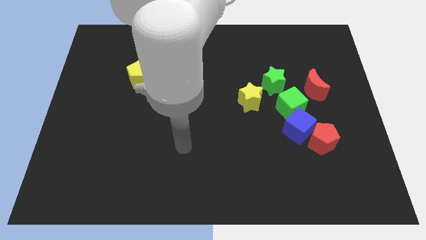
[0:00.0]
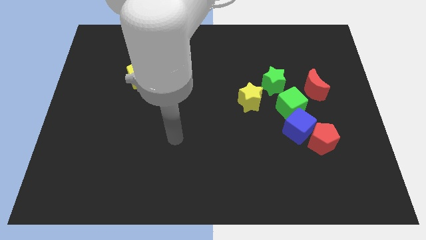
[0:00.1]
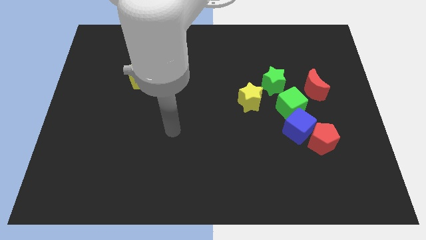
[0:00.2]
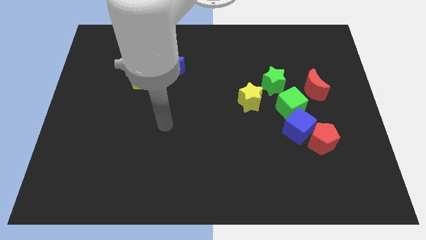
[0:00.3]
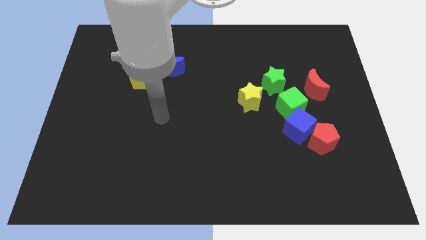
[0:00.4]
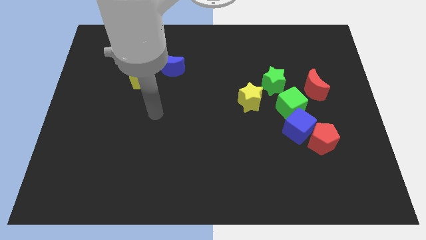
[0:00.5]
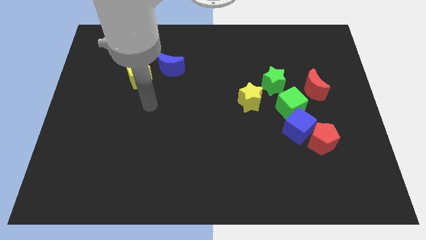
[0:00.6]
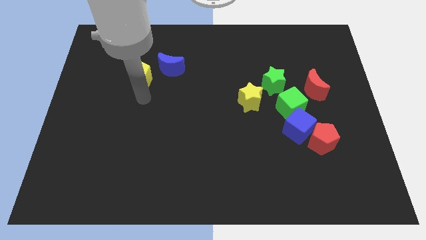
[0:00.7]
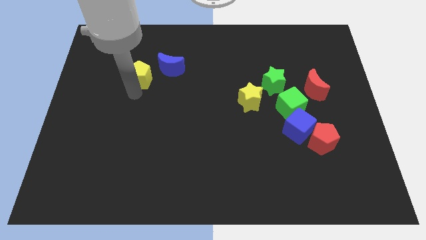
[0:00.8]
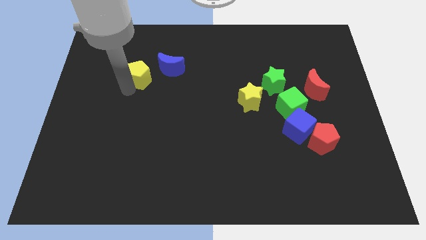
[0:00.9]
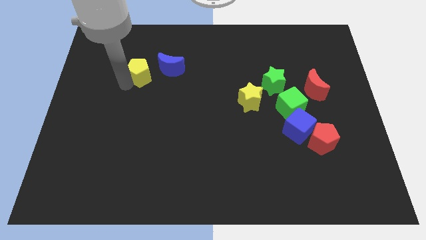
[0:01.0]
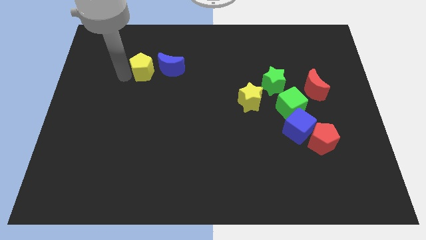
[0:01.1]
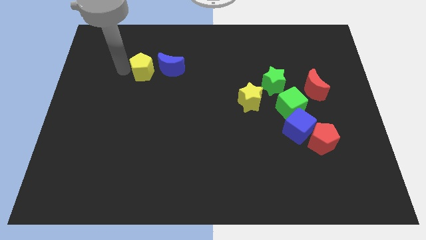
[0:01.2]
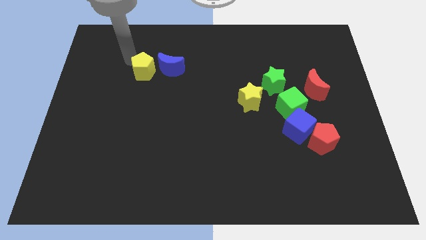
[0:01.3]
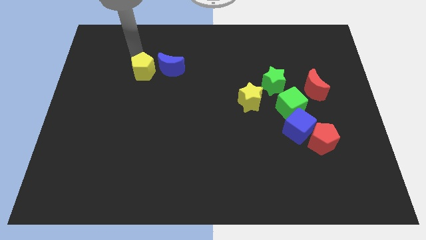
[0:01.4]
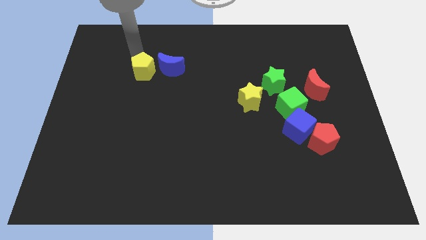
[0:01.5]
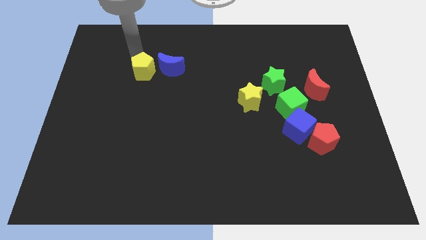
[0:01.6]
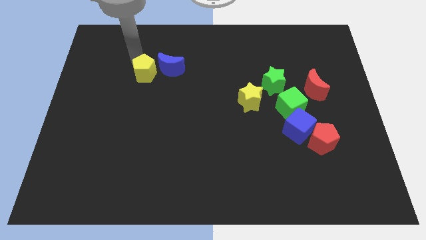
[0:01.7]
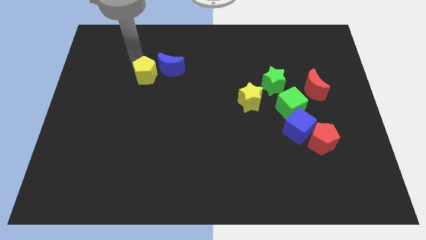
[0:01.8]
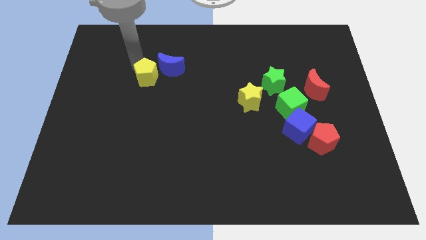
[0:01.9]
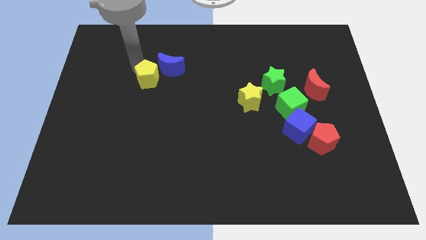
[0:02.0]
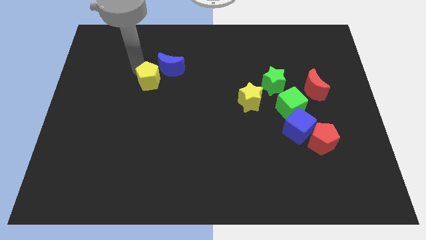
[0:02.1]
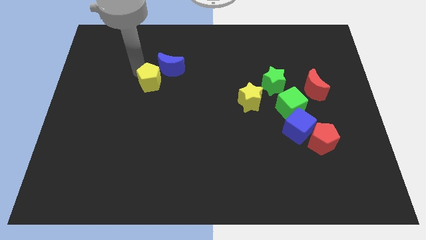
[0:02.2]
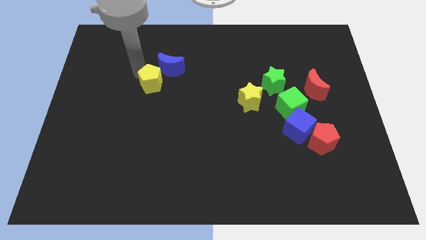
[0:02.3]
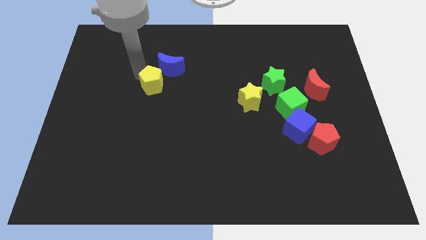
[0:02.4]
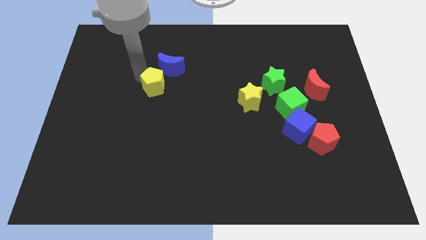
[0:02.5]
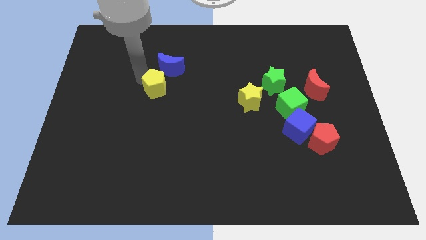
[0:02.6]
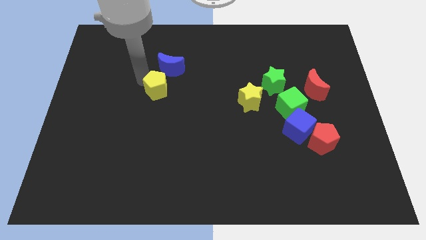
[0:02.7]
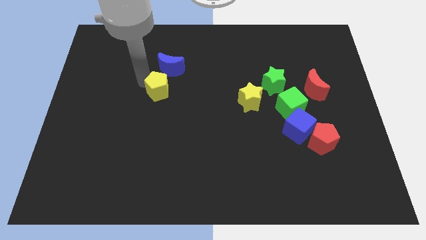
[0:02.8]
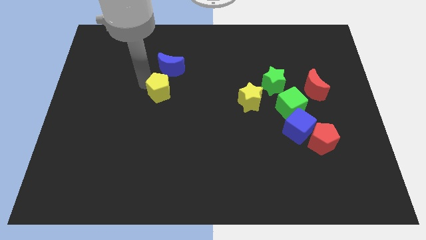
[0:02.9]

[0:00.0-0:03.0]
slightly slide the yellow pentagon downwards and to the right diagonally

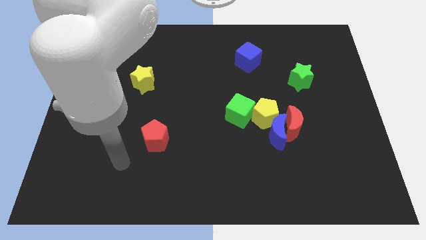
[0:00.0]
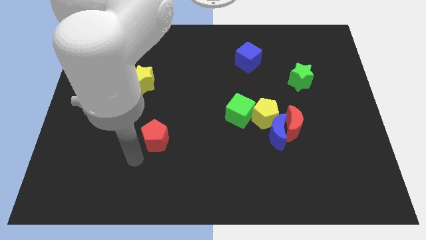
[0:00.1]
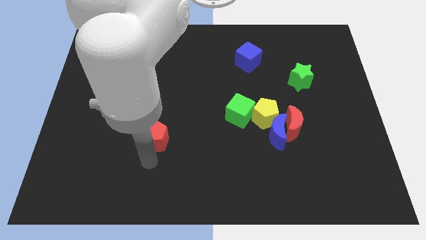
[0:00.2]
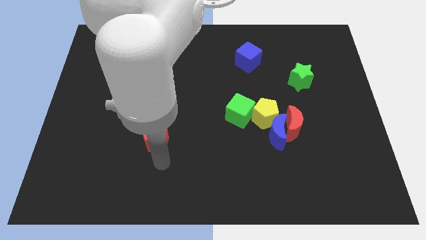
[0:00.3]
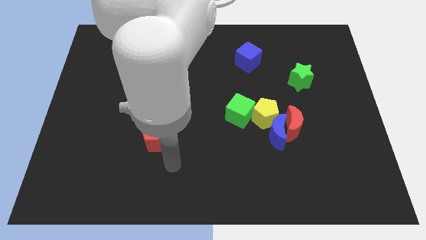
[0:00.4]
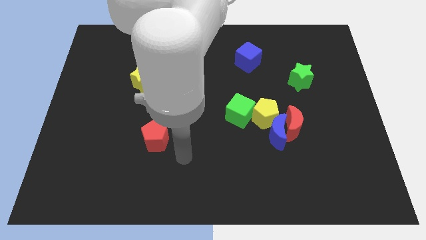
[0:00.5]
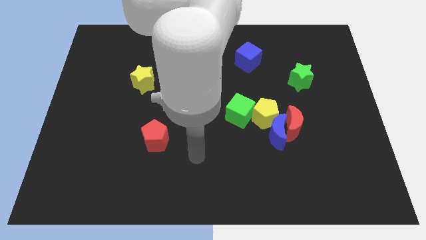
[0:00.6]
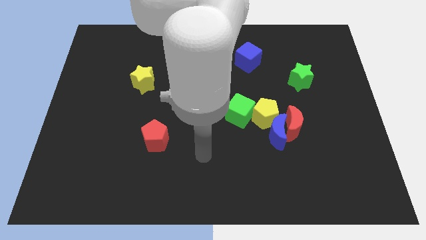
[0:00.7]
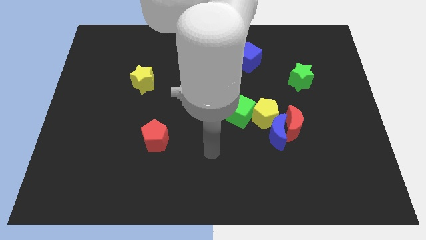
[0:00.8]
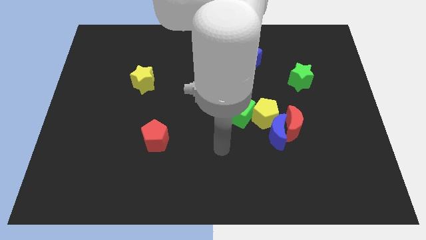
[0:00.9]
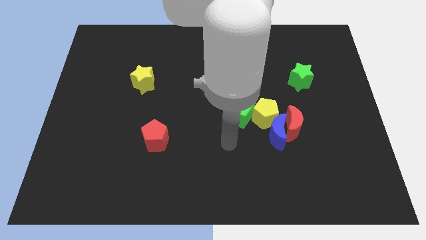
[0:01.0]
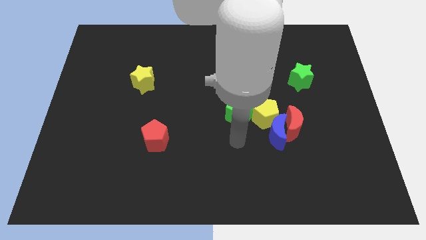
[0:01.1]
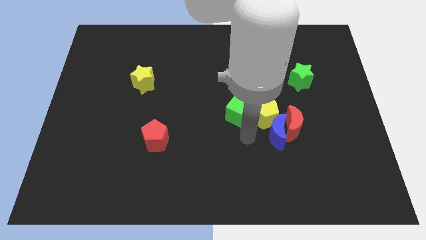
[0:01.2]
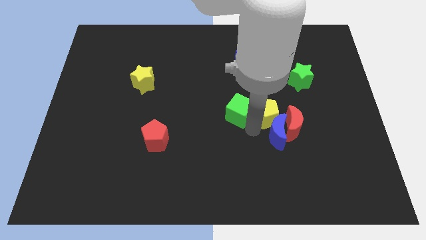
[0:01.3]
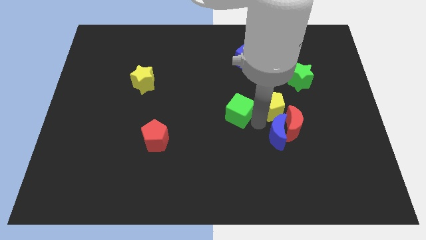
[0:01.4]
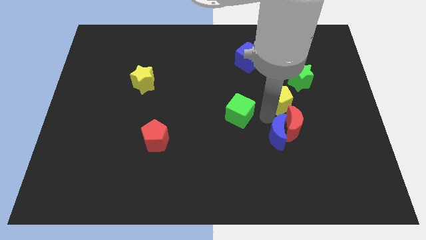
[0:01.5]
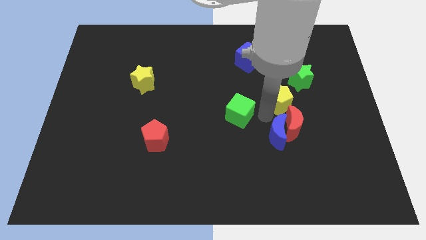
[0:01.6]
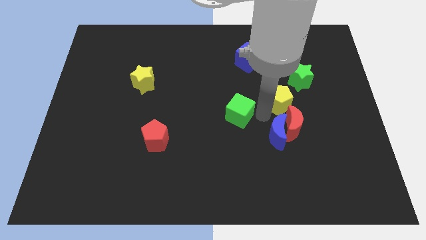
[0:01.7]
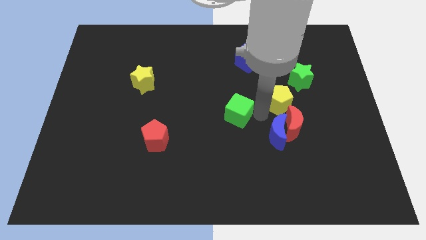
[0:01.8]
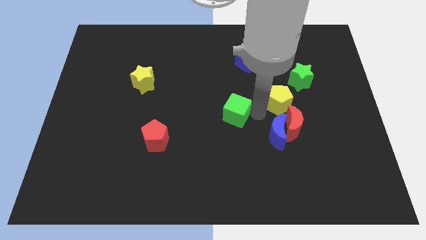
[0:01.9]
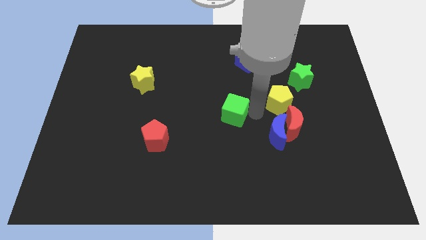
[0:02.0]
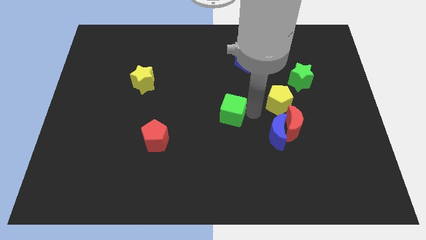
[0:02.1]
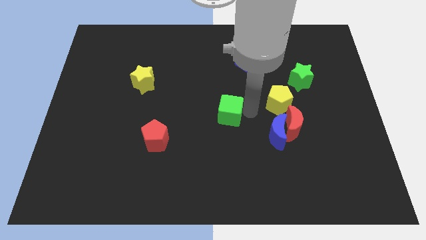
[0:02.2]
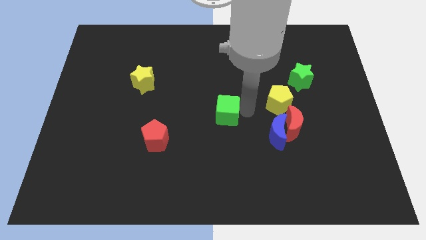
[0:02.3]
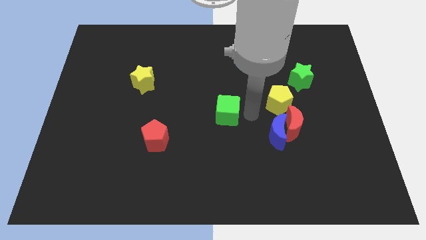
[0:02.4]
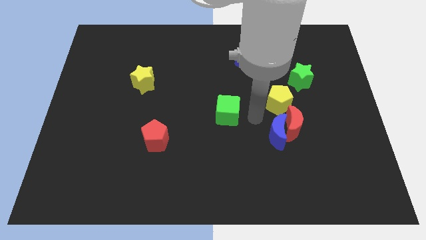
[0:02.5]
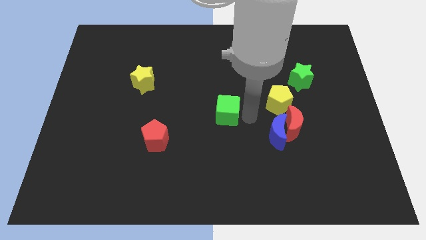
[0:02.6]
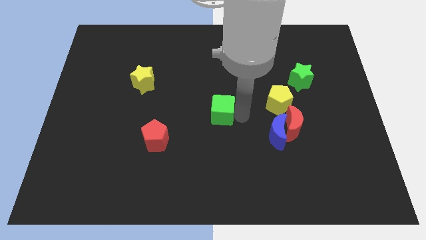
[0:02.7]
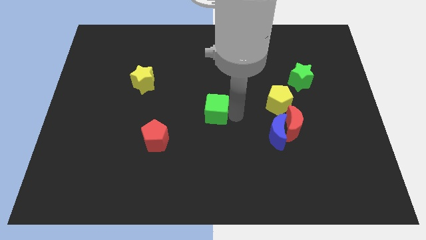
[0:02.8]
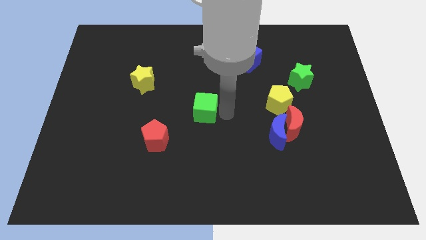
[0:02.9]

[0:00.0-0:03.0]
slide the green cube a little left

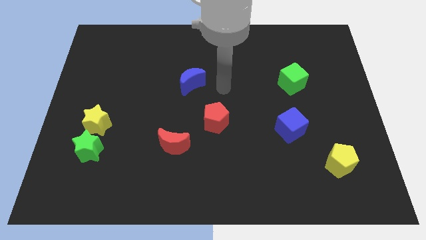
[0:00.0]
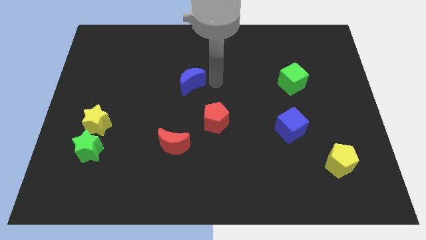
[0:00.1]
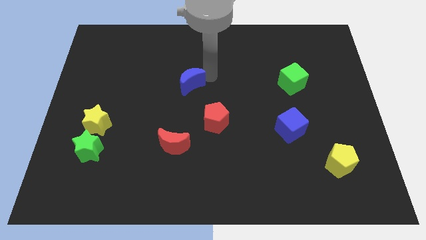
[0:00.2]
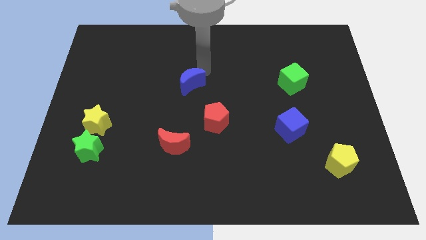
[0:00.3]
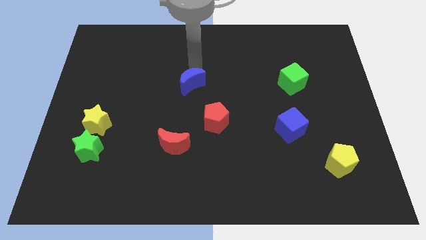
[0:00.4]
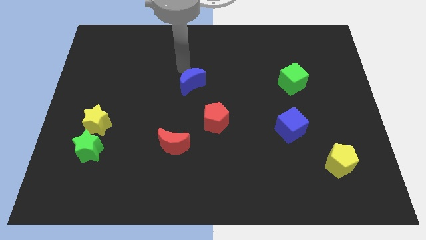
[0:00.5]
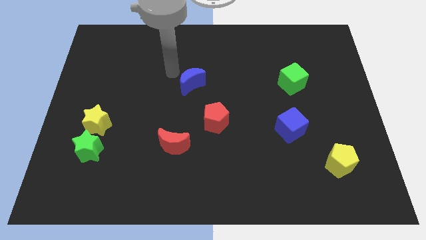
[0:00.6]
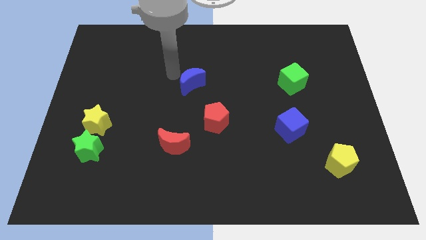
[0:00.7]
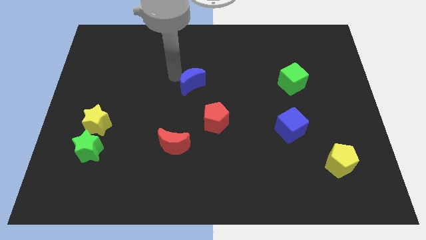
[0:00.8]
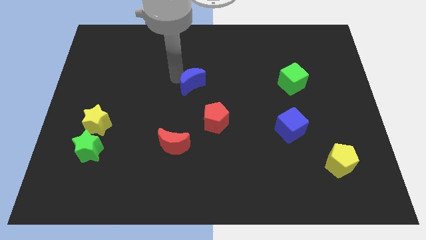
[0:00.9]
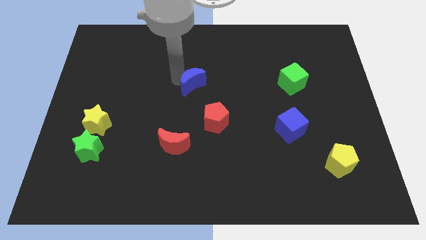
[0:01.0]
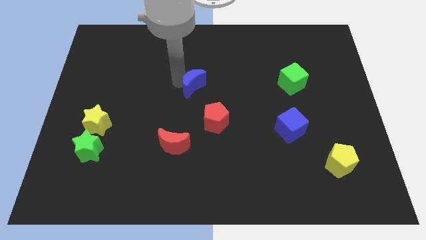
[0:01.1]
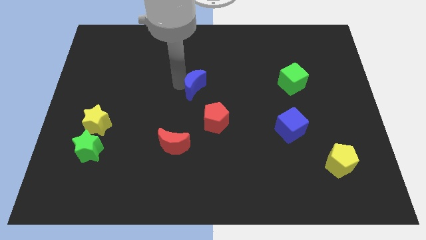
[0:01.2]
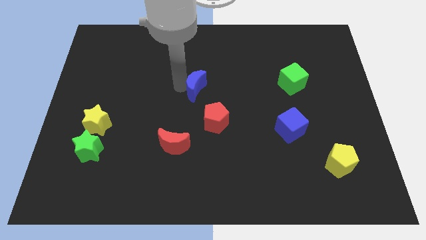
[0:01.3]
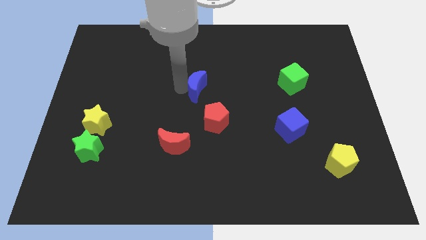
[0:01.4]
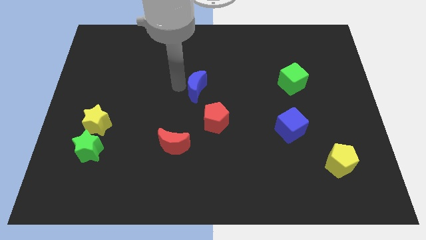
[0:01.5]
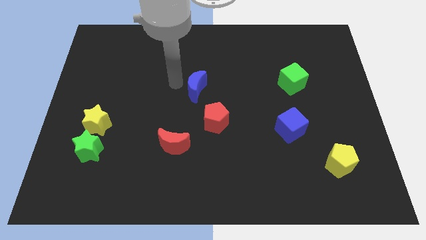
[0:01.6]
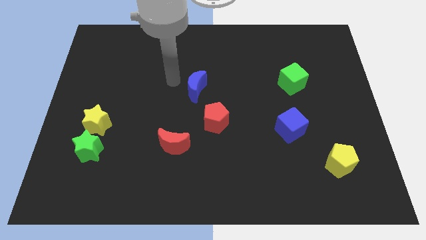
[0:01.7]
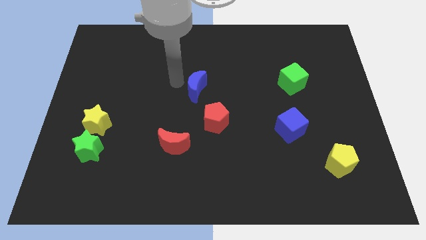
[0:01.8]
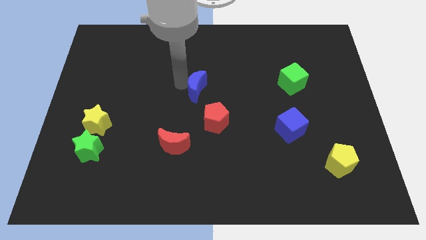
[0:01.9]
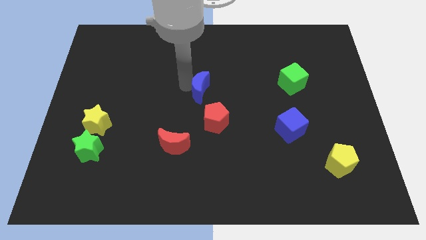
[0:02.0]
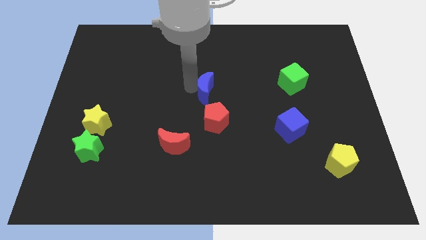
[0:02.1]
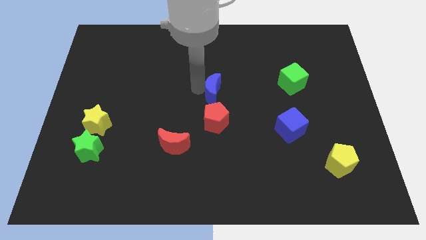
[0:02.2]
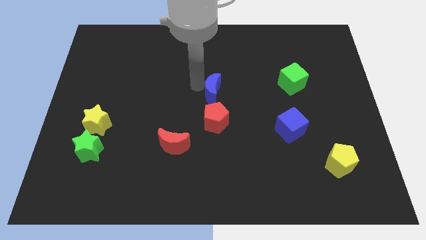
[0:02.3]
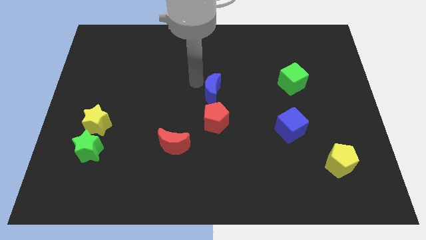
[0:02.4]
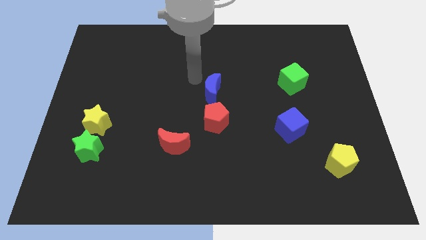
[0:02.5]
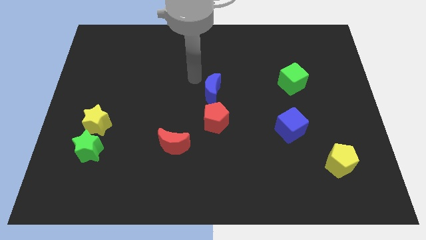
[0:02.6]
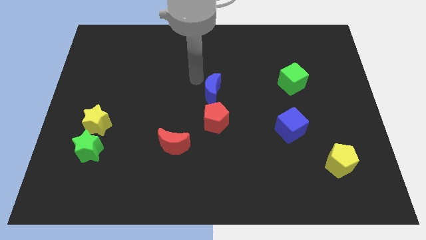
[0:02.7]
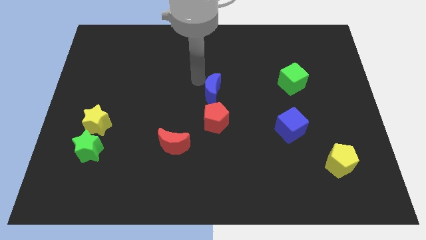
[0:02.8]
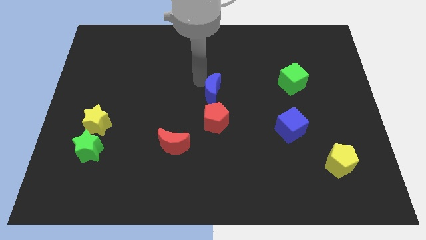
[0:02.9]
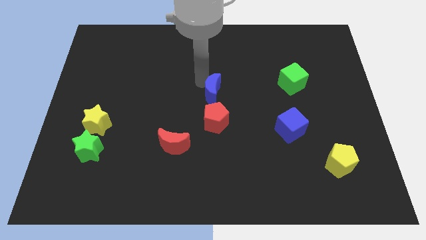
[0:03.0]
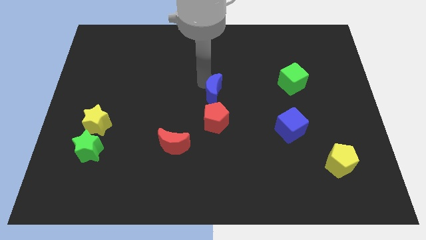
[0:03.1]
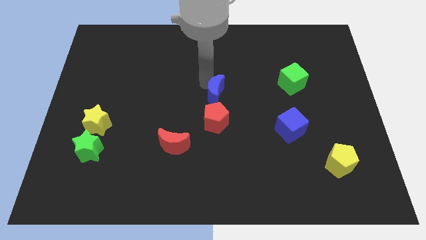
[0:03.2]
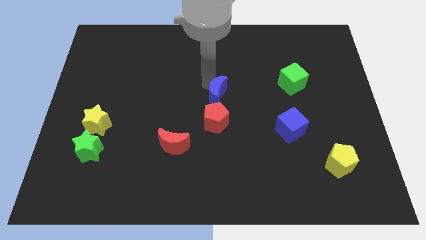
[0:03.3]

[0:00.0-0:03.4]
slide the blue moon slightly diagonally down and right
